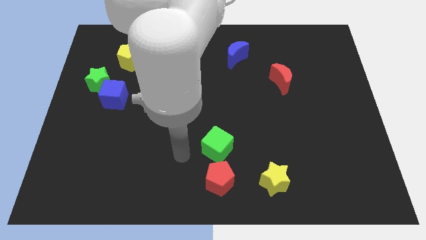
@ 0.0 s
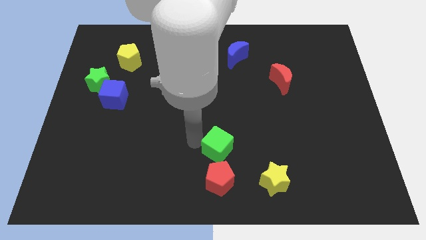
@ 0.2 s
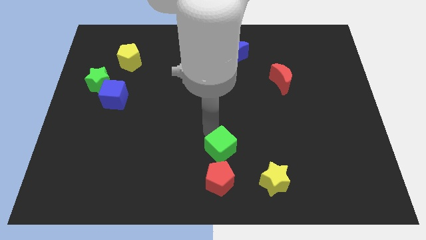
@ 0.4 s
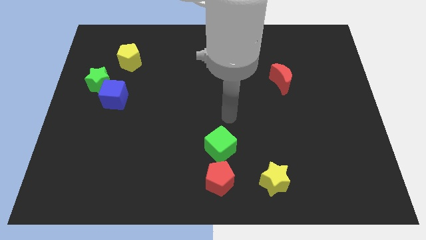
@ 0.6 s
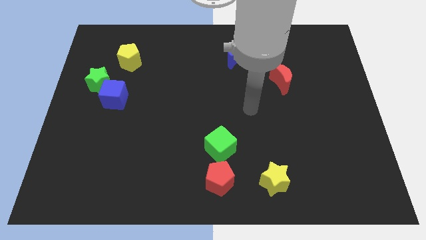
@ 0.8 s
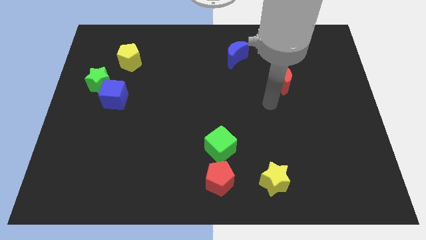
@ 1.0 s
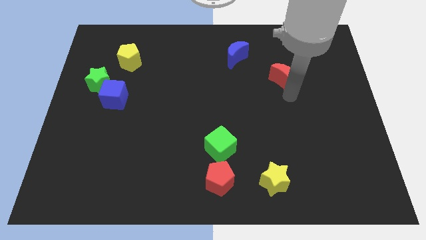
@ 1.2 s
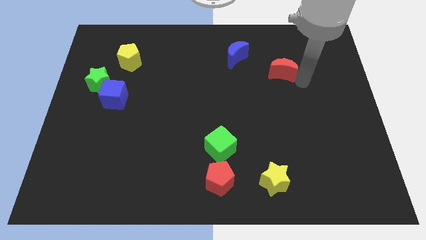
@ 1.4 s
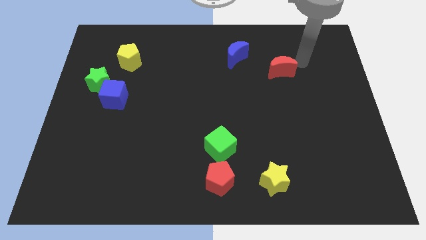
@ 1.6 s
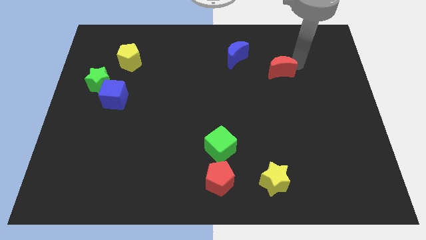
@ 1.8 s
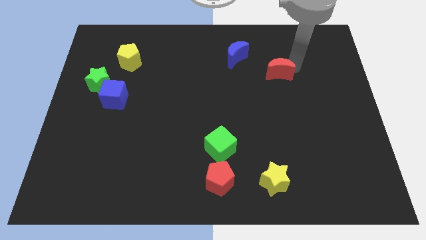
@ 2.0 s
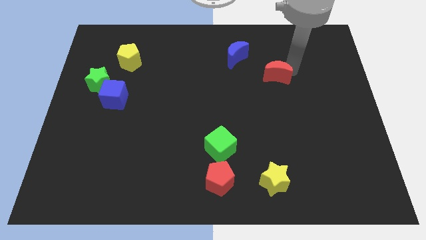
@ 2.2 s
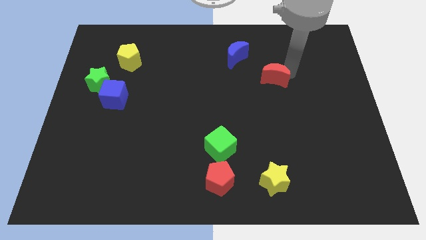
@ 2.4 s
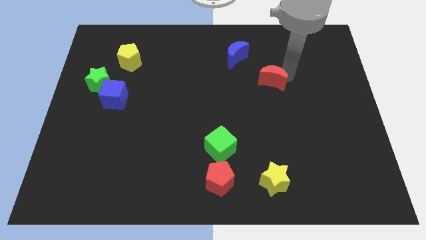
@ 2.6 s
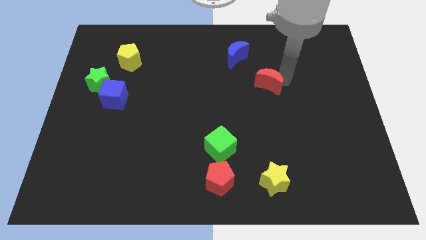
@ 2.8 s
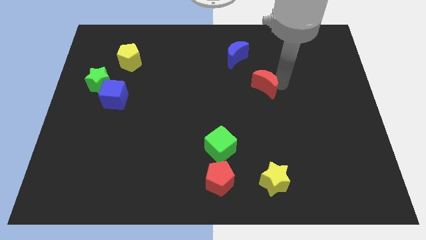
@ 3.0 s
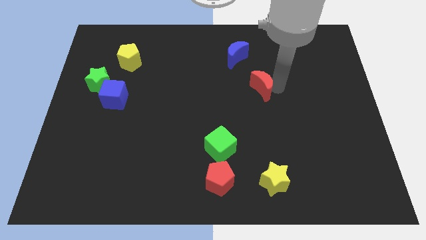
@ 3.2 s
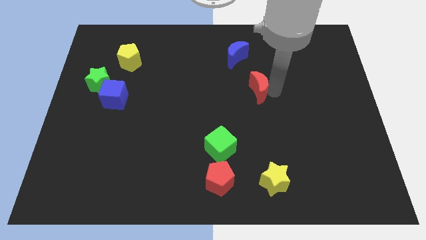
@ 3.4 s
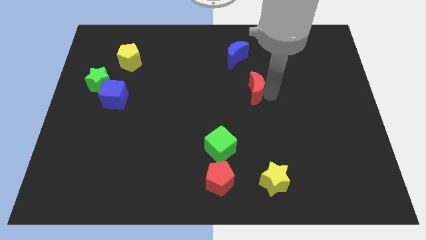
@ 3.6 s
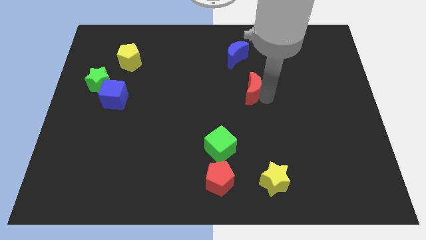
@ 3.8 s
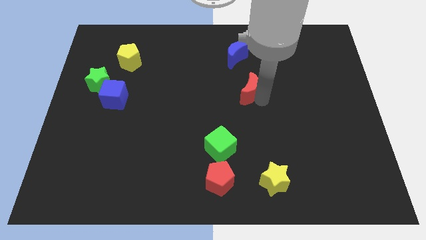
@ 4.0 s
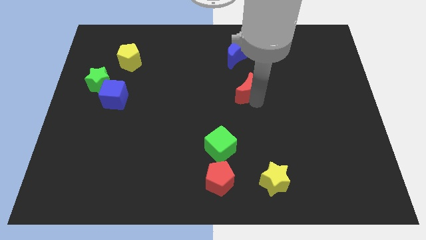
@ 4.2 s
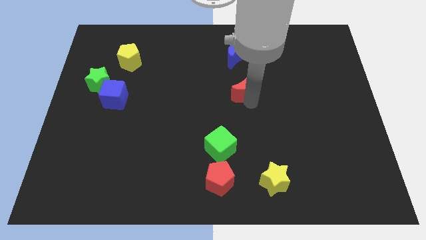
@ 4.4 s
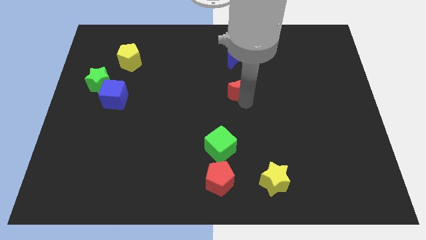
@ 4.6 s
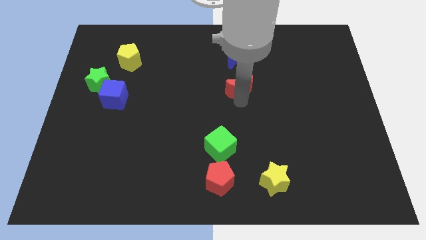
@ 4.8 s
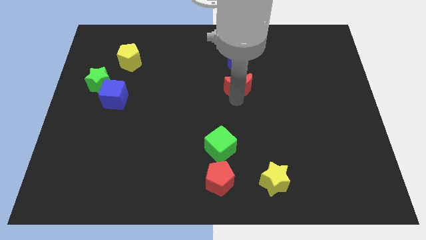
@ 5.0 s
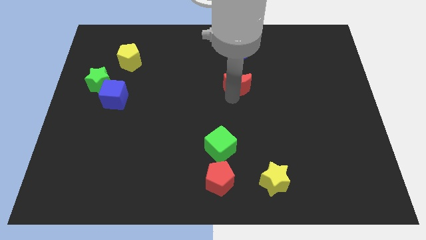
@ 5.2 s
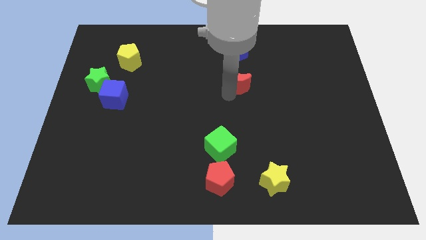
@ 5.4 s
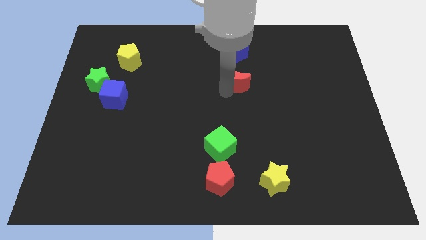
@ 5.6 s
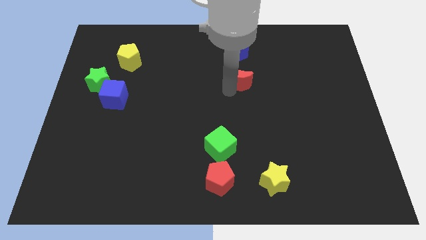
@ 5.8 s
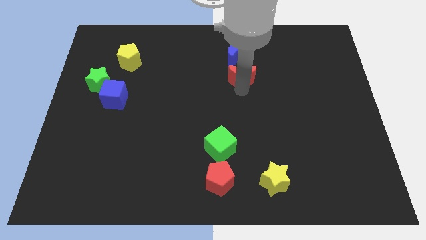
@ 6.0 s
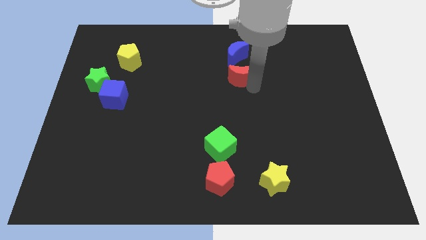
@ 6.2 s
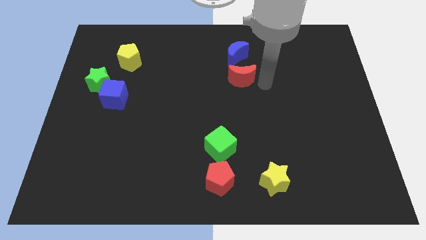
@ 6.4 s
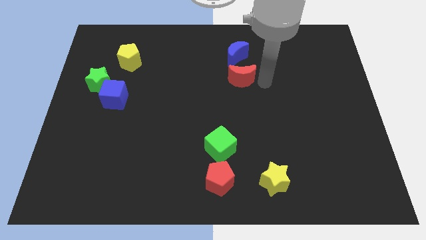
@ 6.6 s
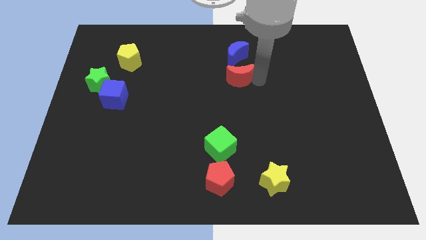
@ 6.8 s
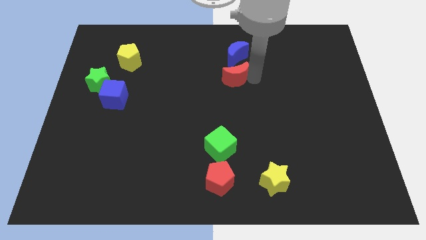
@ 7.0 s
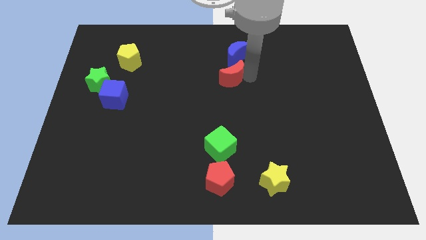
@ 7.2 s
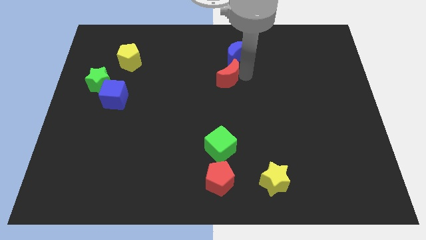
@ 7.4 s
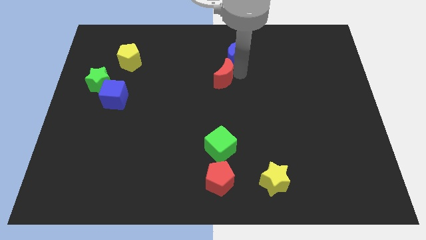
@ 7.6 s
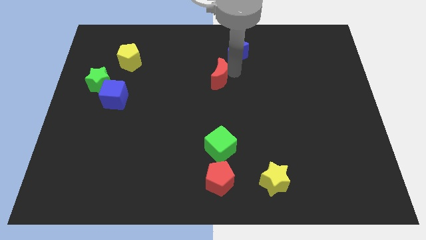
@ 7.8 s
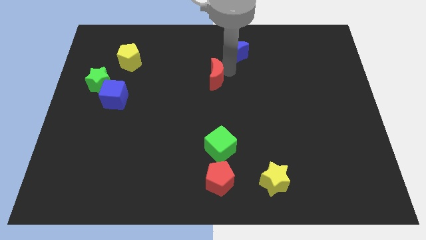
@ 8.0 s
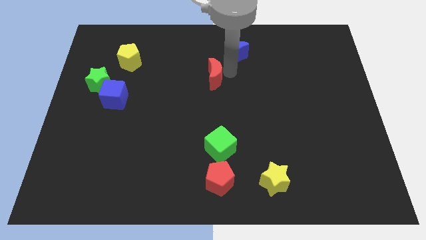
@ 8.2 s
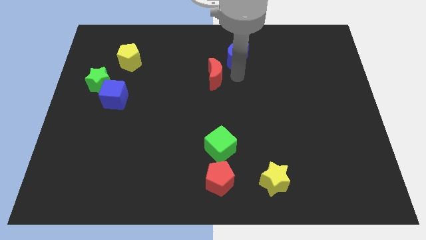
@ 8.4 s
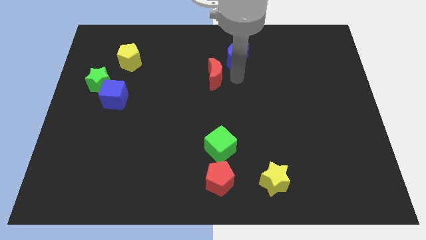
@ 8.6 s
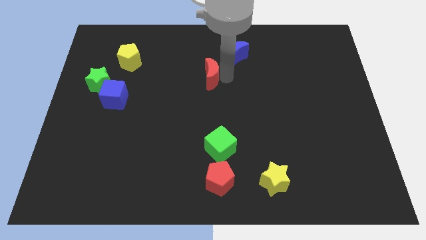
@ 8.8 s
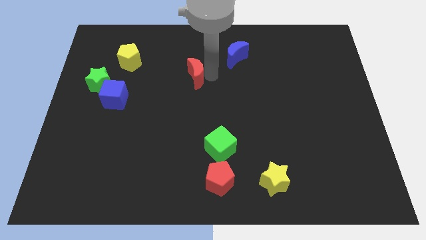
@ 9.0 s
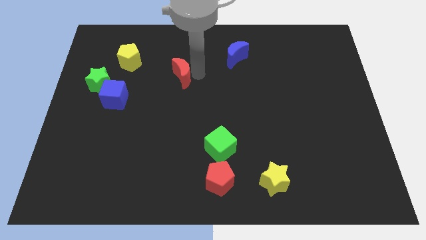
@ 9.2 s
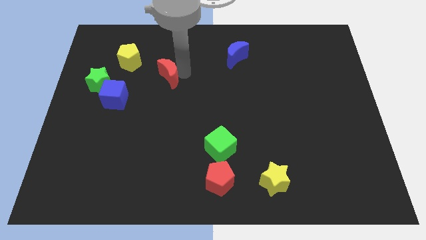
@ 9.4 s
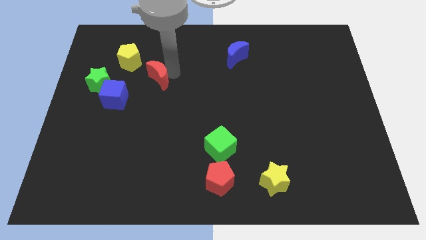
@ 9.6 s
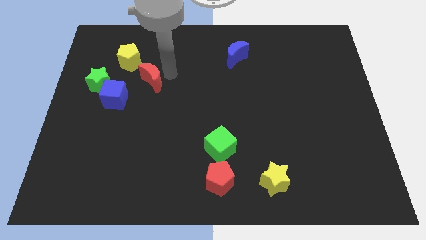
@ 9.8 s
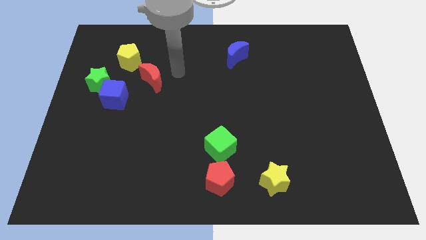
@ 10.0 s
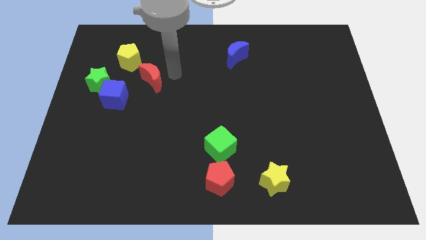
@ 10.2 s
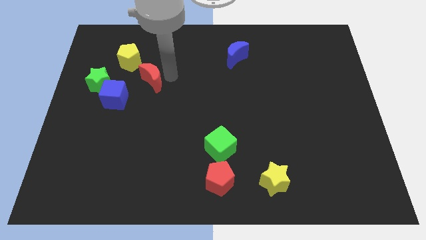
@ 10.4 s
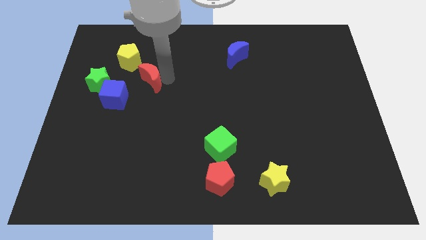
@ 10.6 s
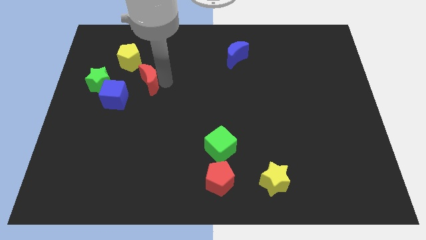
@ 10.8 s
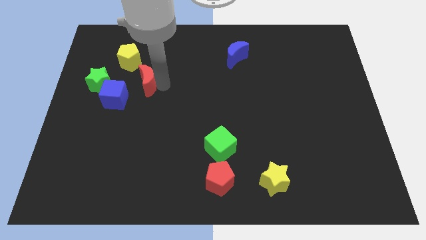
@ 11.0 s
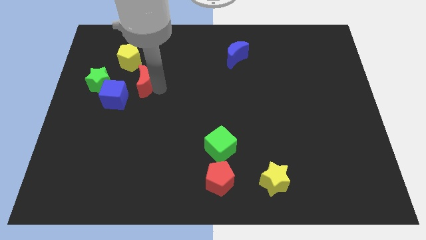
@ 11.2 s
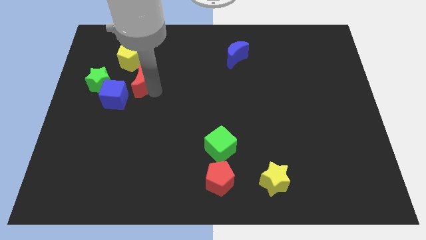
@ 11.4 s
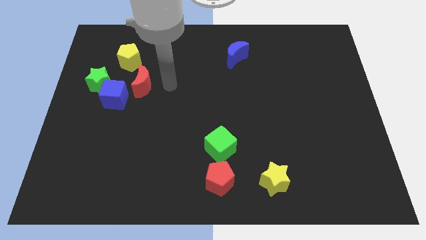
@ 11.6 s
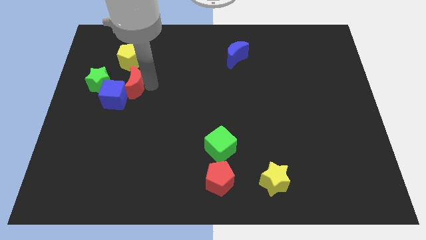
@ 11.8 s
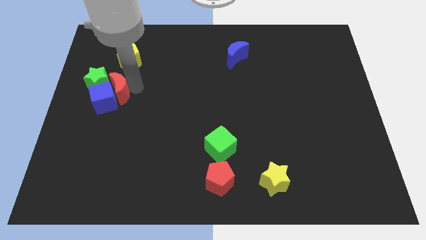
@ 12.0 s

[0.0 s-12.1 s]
move the red moon next to the green star

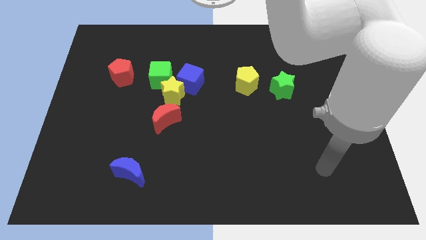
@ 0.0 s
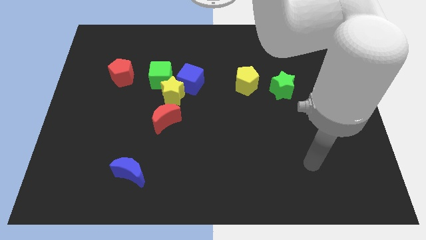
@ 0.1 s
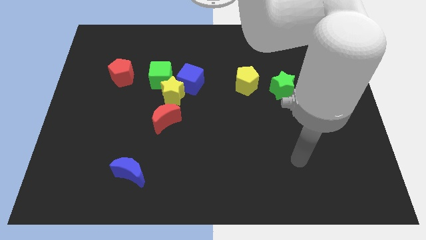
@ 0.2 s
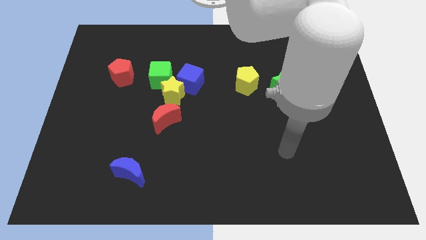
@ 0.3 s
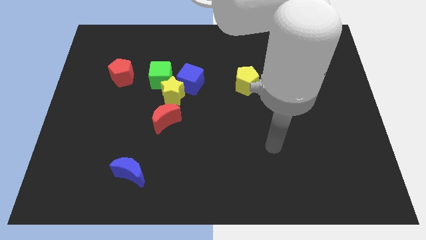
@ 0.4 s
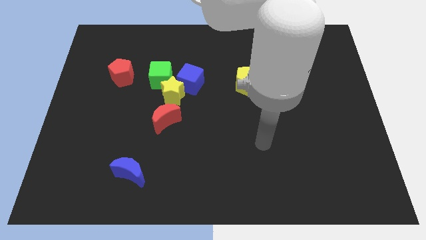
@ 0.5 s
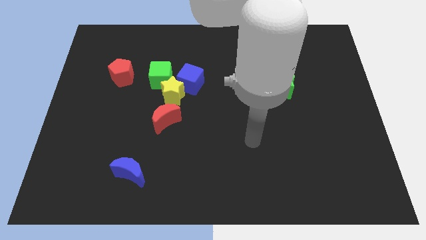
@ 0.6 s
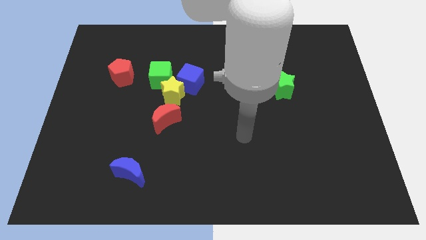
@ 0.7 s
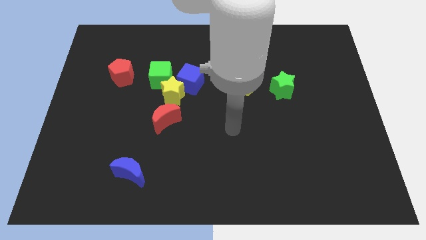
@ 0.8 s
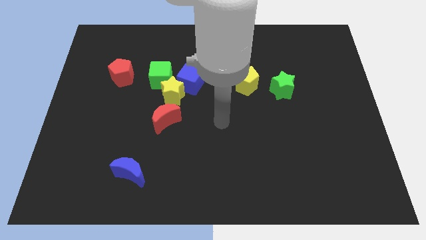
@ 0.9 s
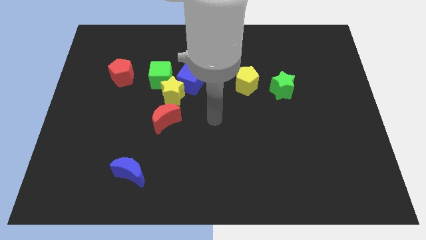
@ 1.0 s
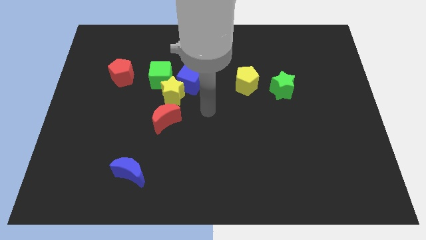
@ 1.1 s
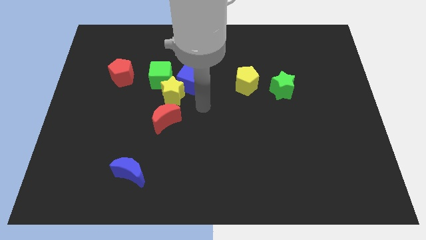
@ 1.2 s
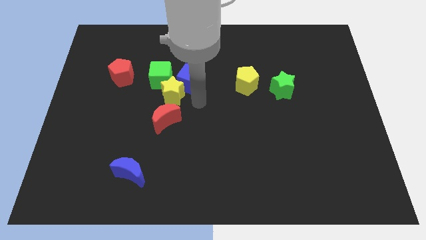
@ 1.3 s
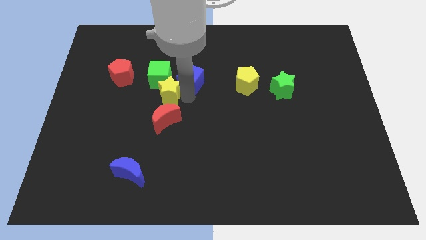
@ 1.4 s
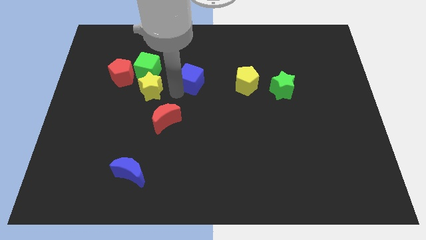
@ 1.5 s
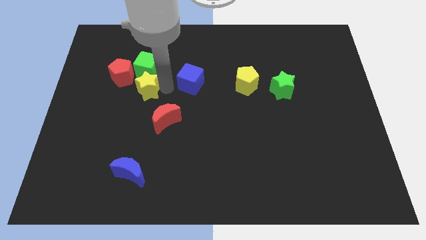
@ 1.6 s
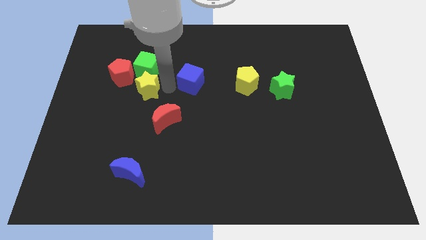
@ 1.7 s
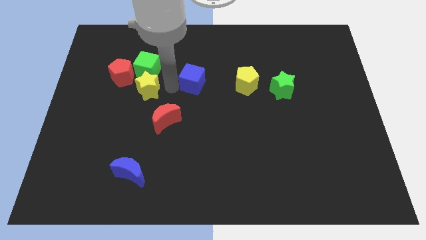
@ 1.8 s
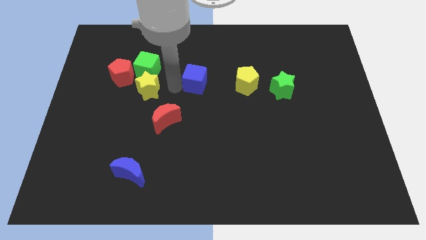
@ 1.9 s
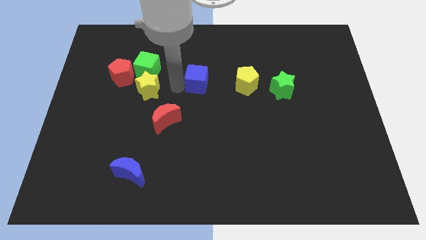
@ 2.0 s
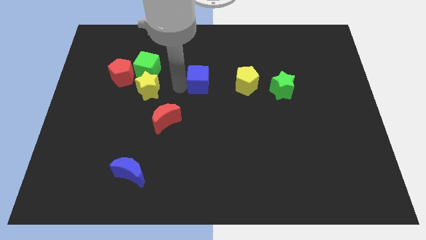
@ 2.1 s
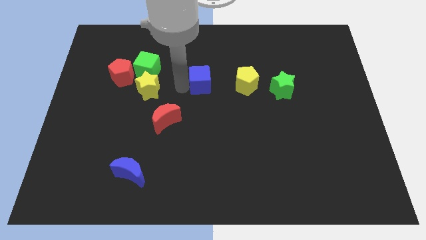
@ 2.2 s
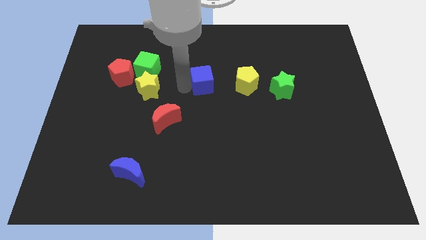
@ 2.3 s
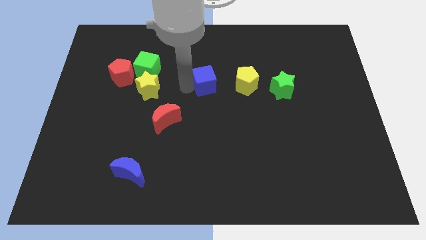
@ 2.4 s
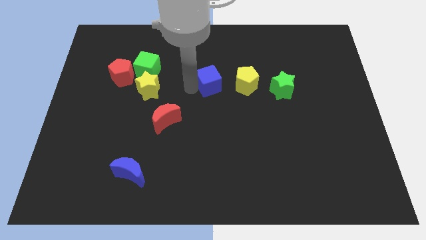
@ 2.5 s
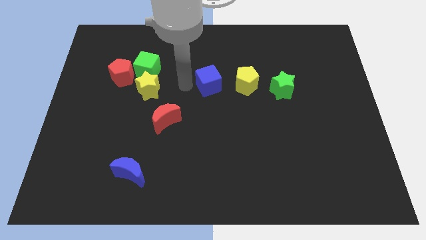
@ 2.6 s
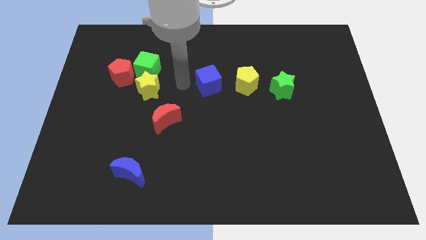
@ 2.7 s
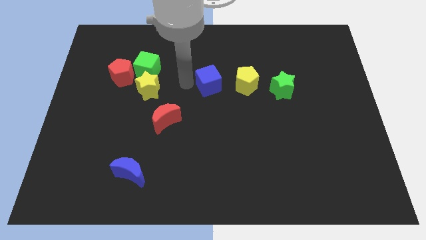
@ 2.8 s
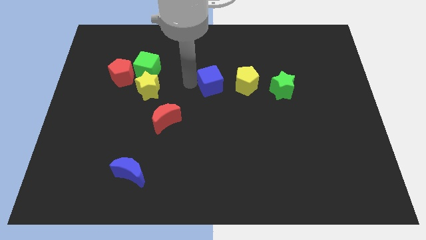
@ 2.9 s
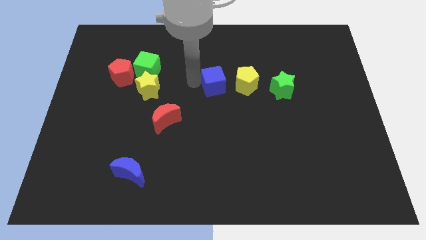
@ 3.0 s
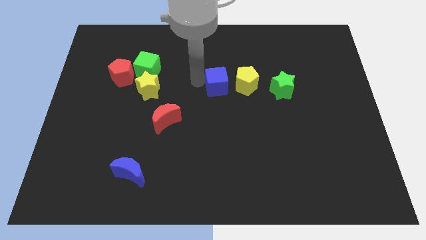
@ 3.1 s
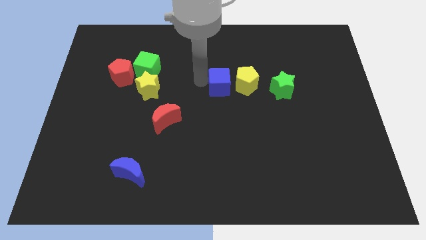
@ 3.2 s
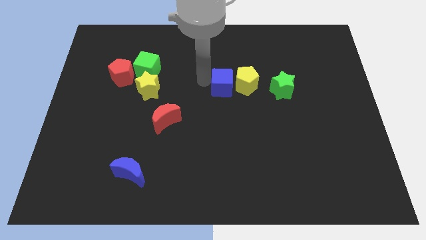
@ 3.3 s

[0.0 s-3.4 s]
put the blue cube towards the yellow pentagon
